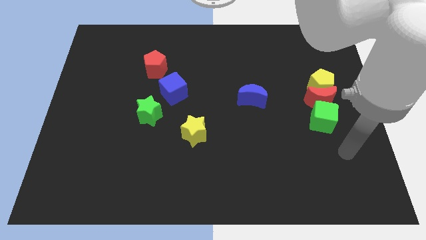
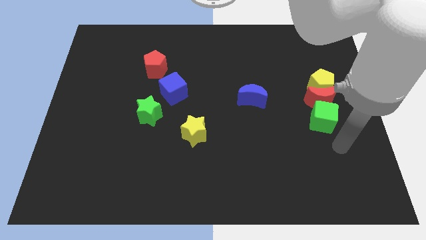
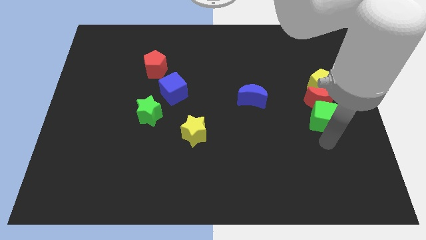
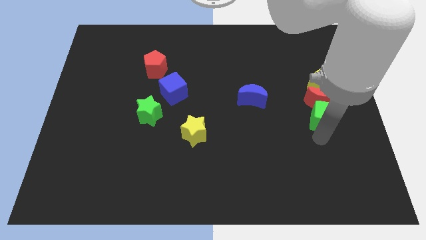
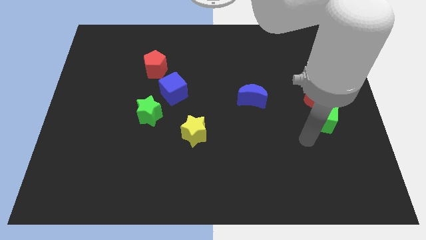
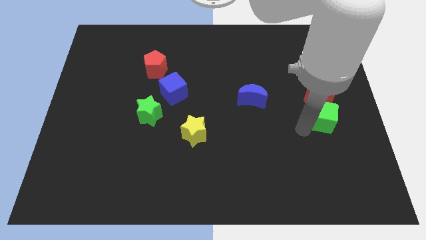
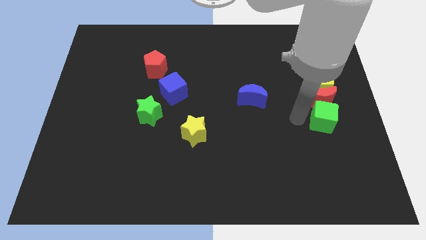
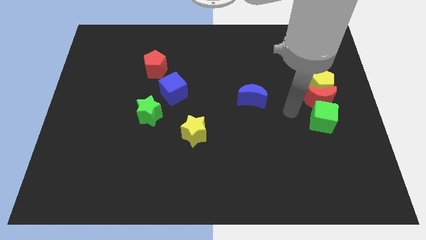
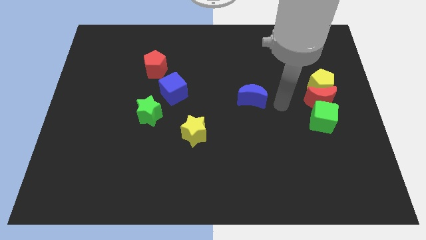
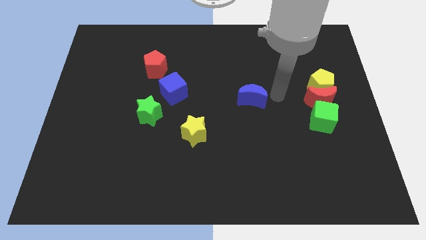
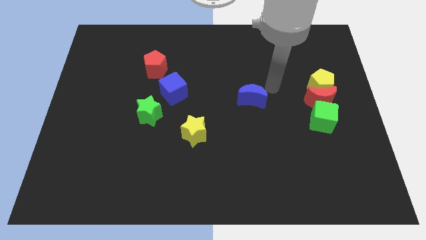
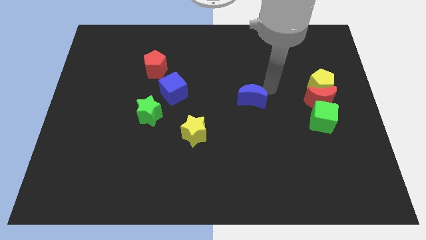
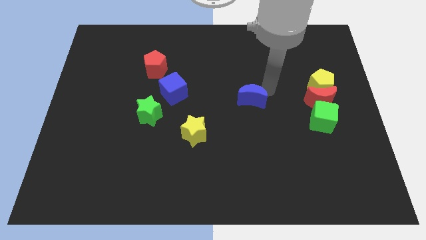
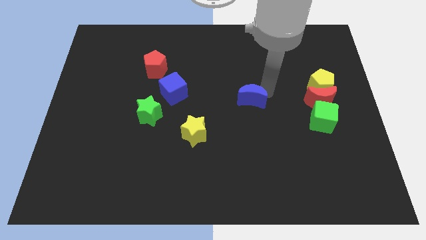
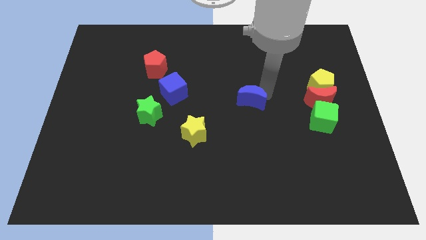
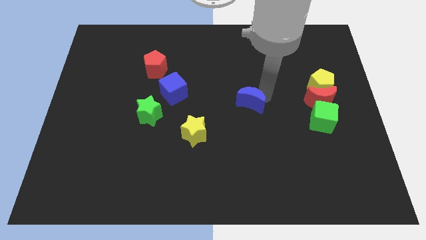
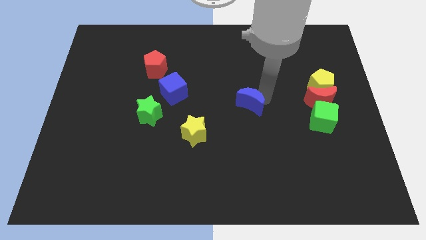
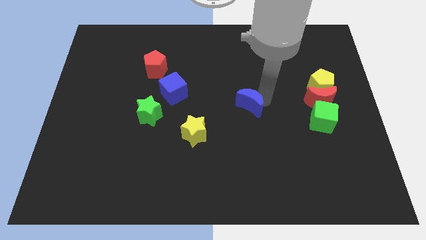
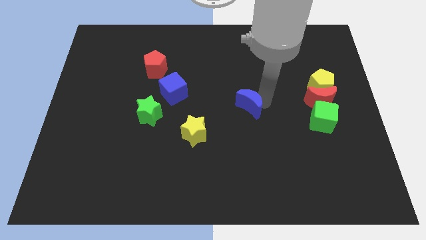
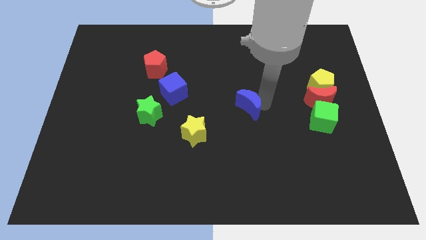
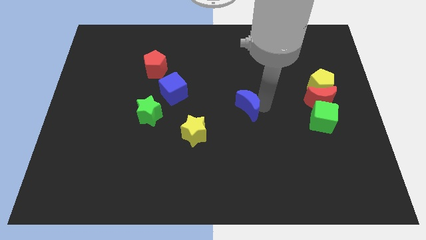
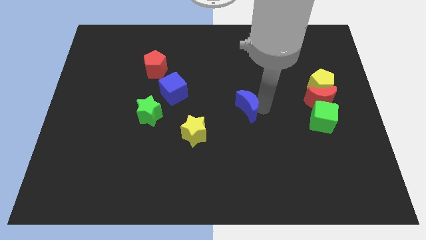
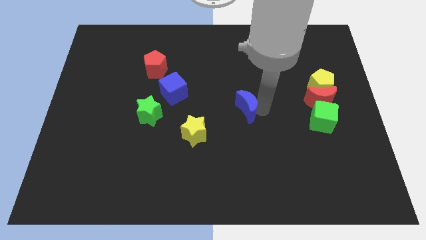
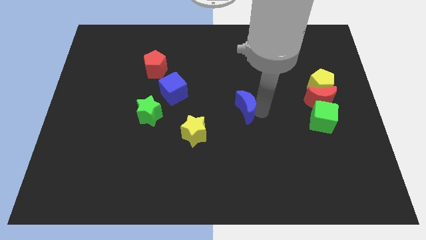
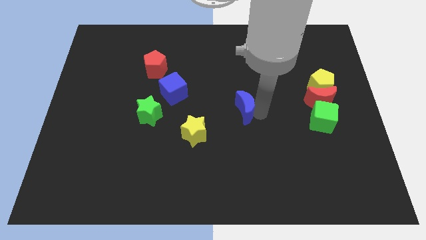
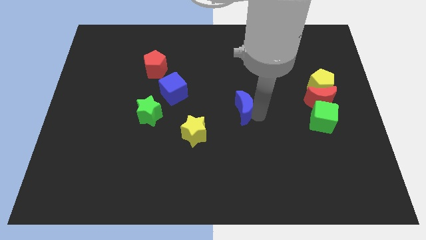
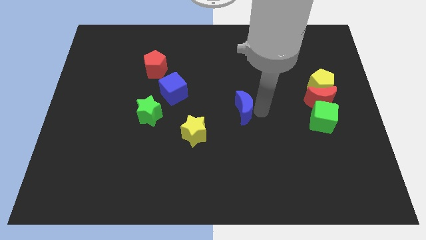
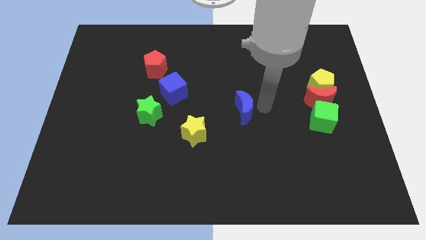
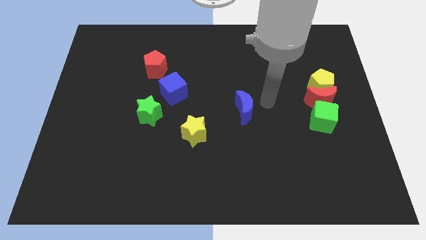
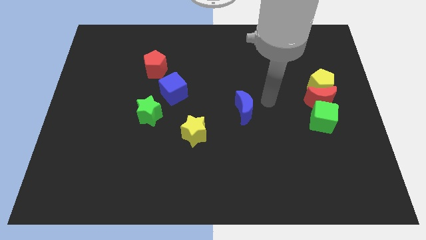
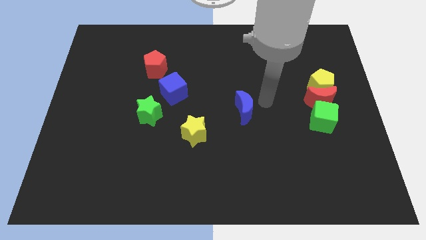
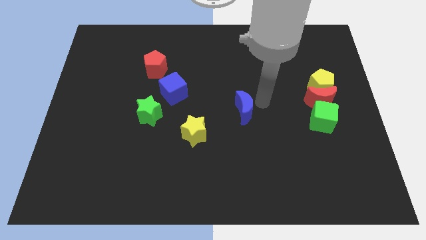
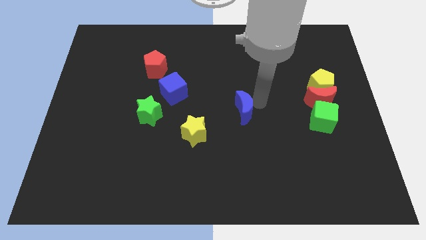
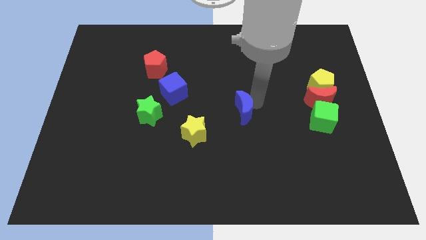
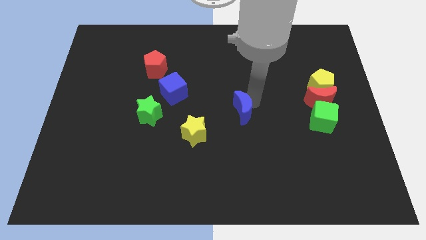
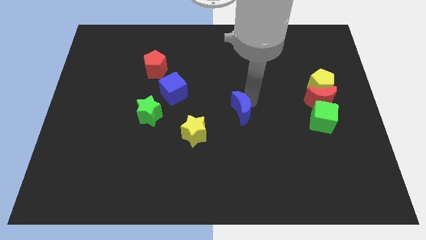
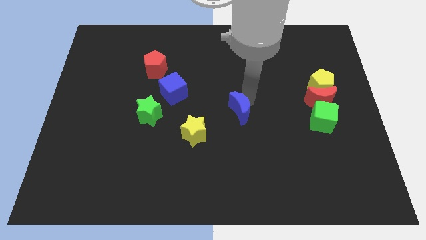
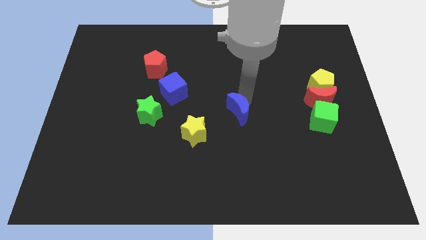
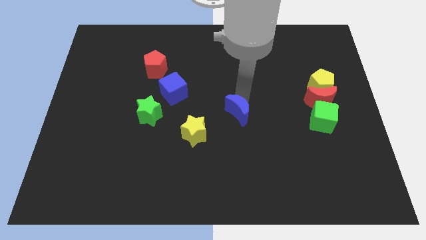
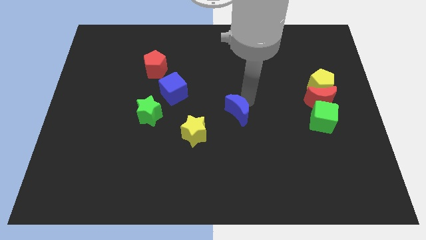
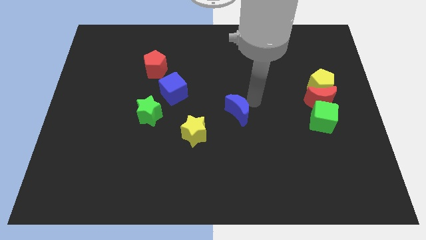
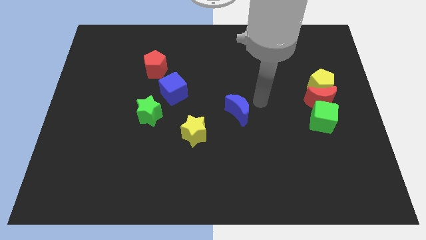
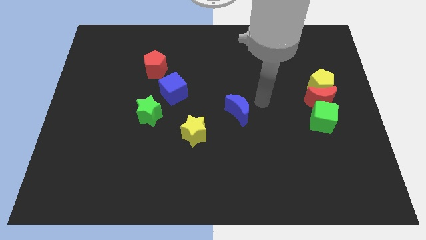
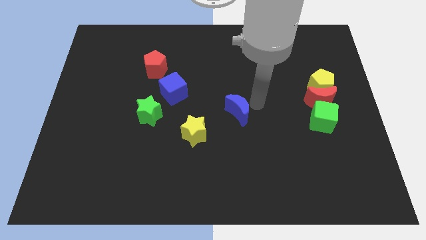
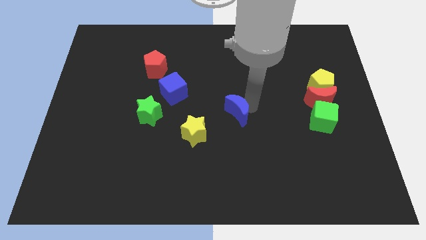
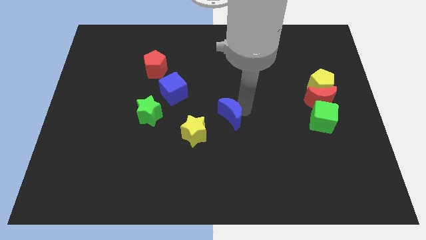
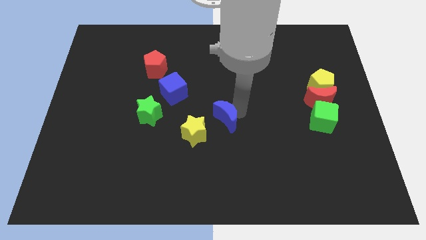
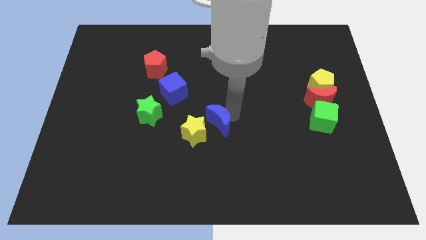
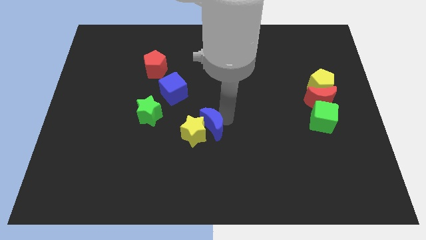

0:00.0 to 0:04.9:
put the blue moon next to the yellow star

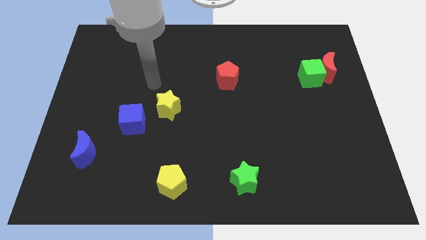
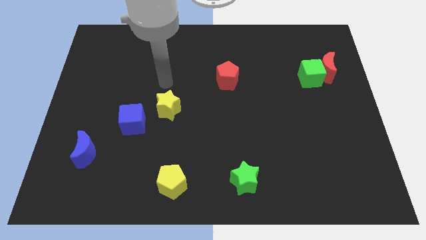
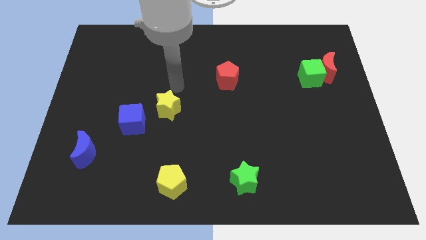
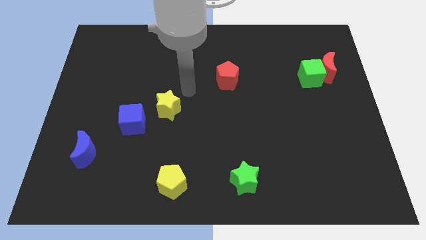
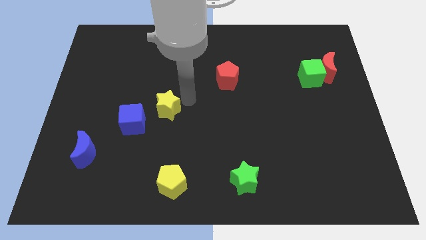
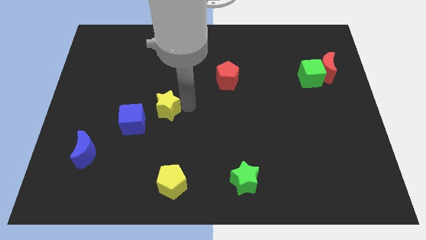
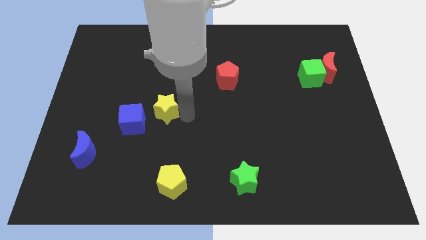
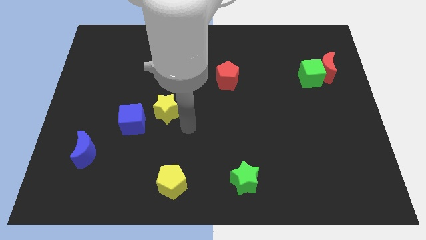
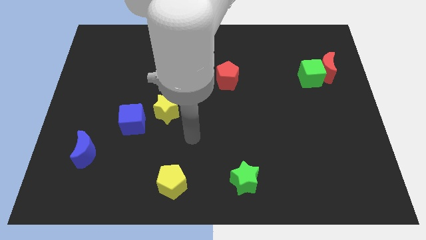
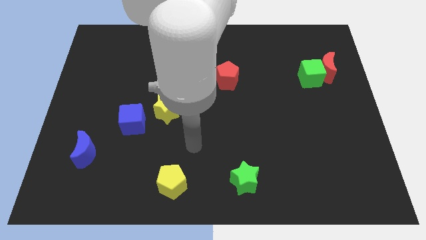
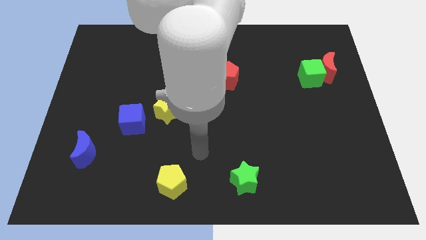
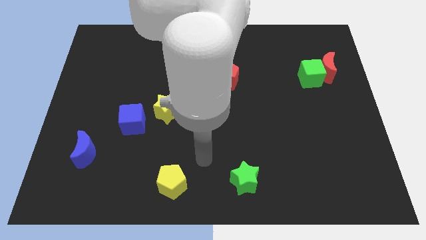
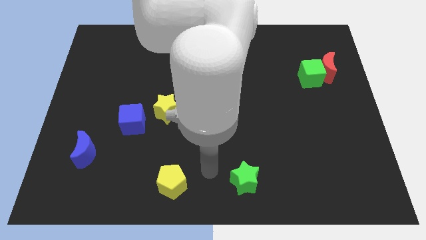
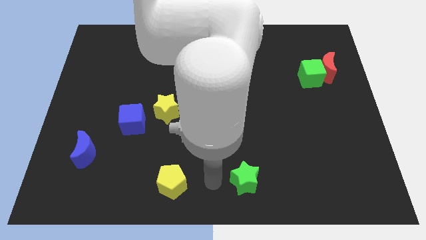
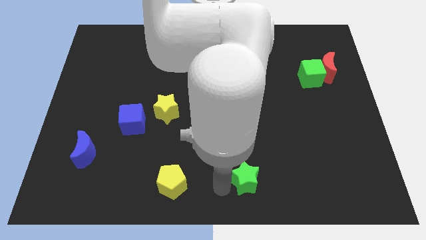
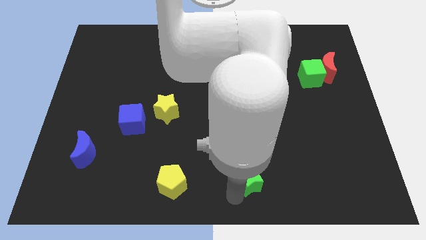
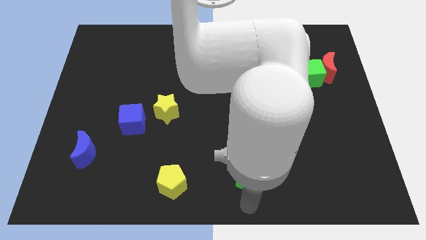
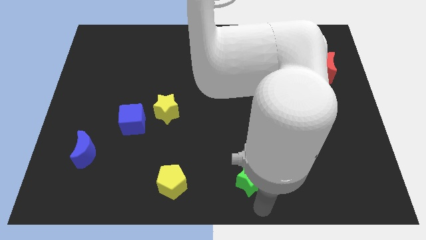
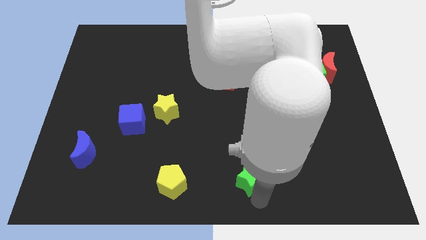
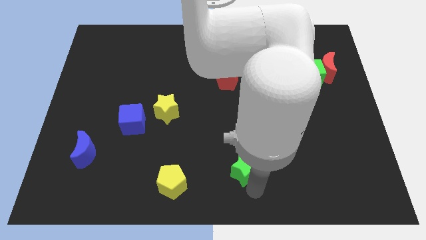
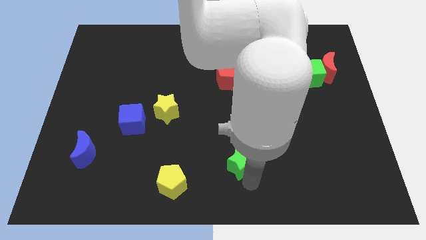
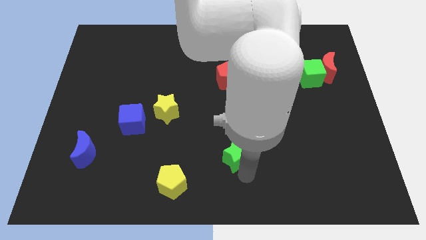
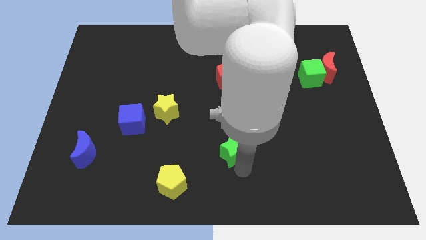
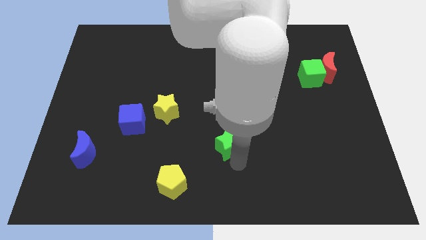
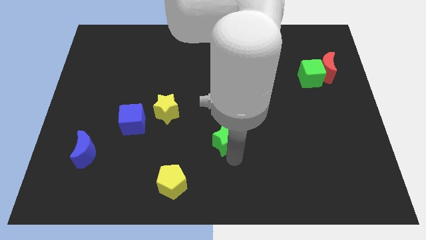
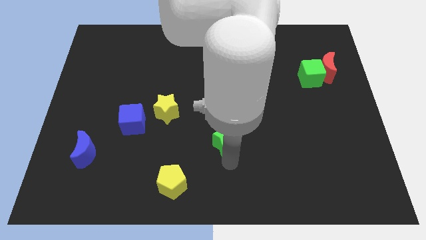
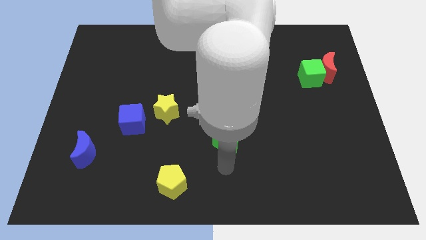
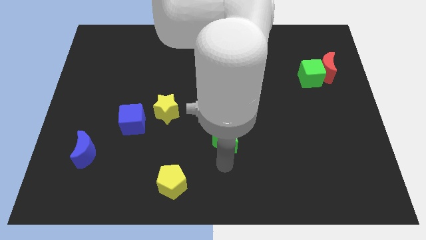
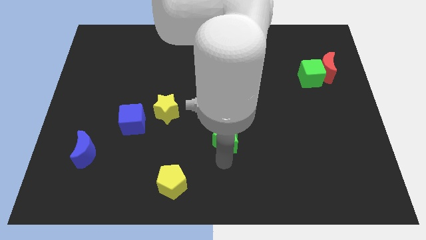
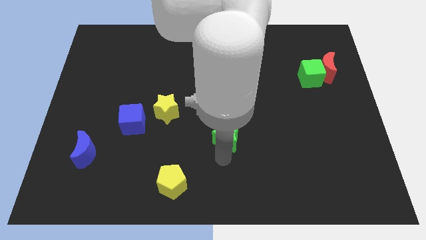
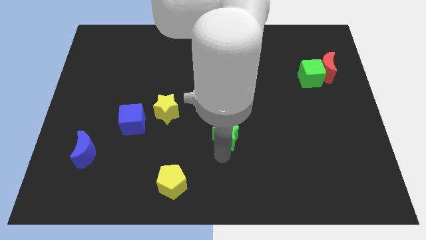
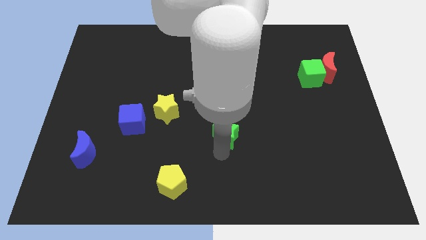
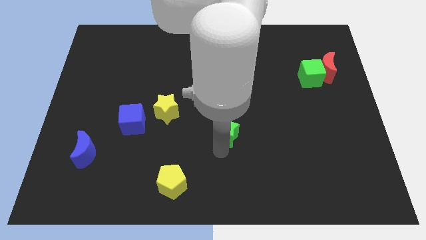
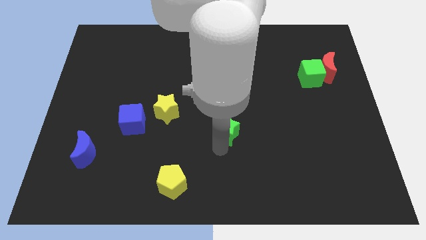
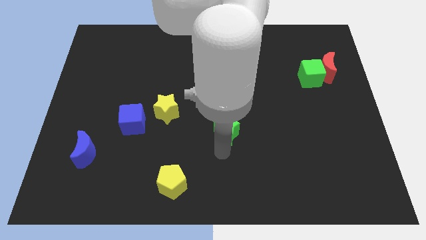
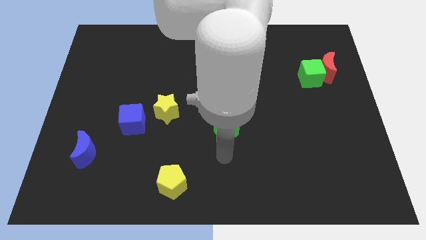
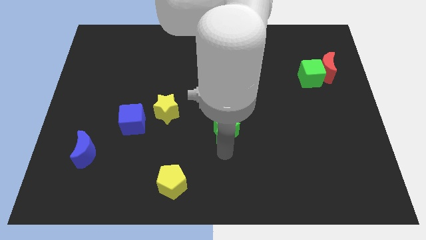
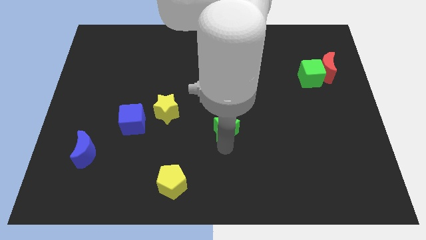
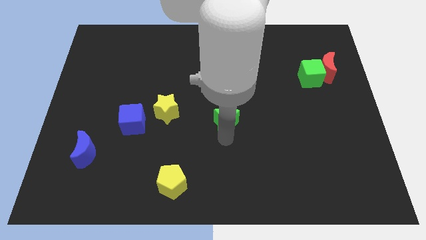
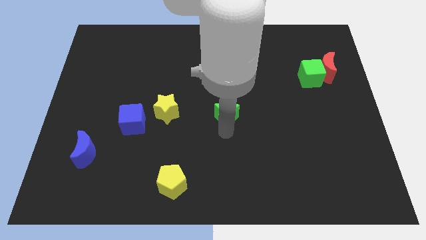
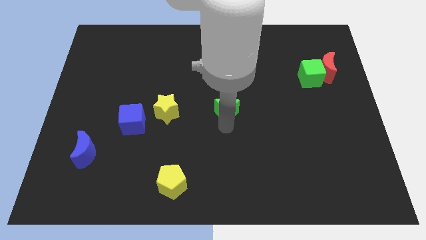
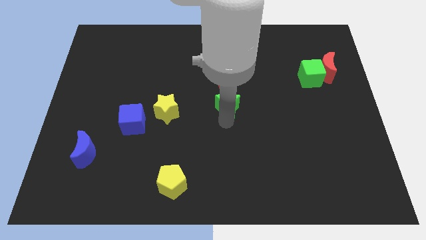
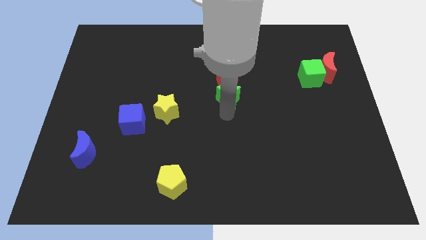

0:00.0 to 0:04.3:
move the green star to the red pentagon
